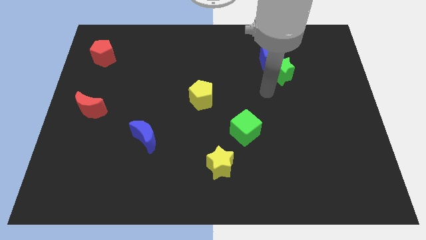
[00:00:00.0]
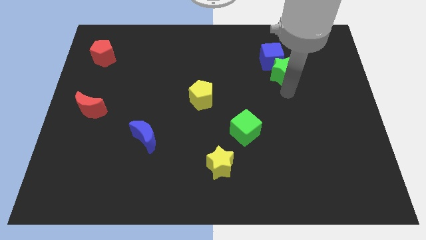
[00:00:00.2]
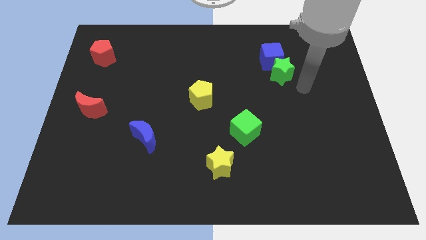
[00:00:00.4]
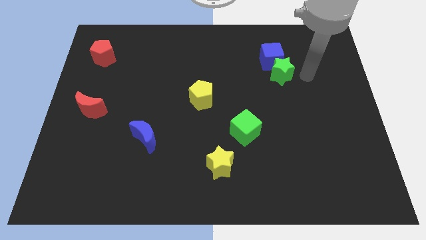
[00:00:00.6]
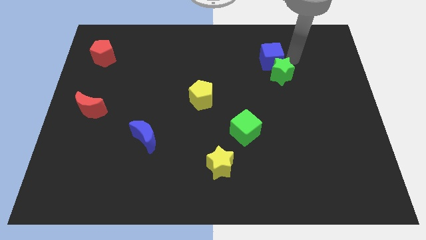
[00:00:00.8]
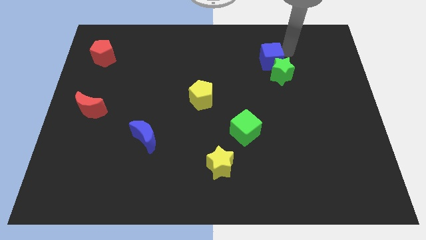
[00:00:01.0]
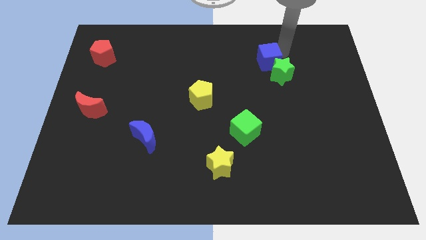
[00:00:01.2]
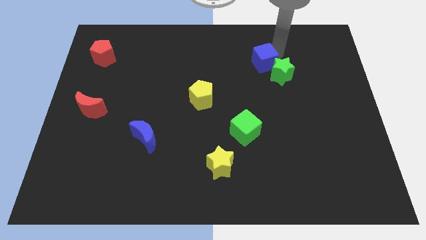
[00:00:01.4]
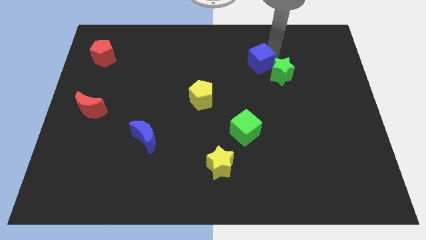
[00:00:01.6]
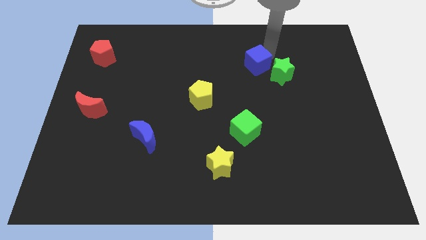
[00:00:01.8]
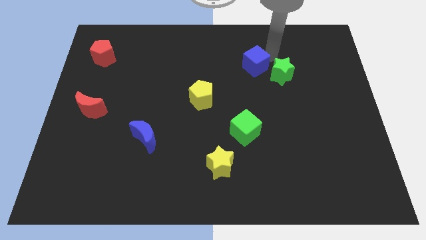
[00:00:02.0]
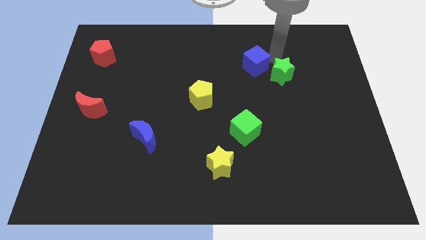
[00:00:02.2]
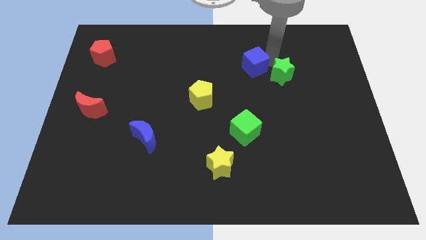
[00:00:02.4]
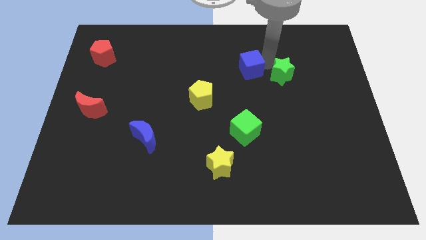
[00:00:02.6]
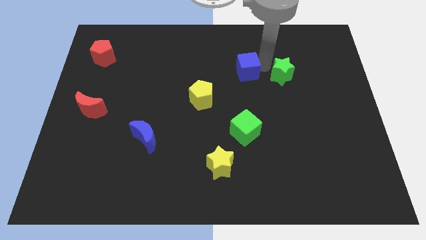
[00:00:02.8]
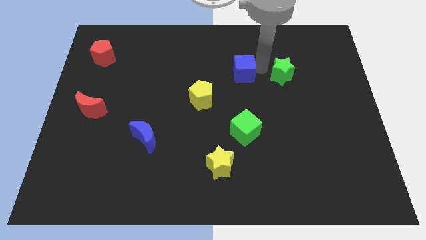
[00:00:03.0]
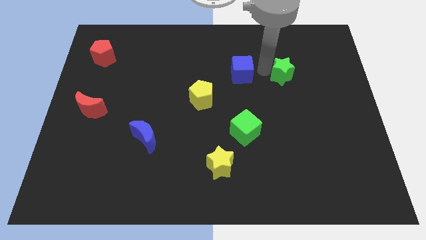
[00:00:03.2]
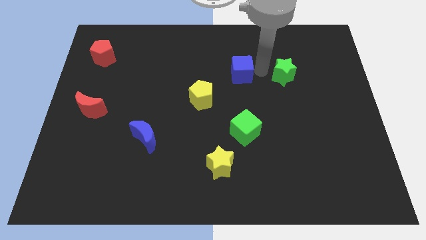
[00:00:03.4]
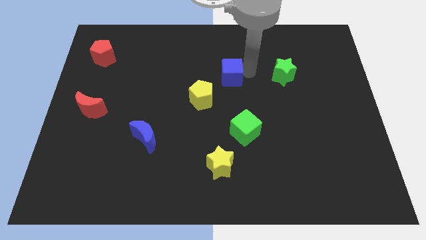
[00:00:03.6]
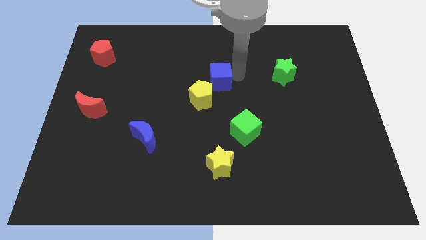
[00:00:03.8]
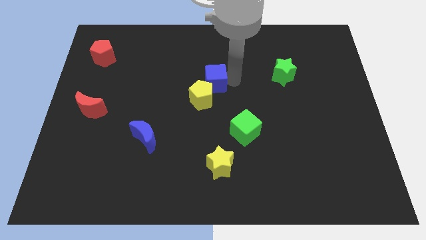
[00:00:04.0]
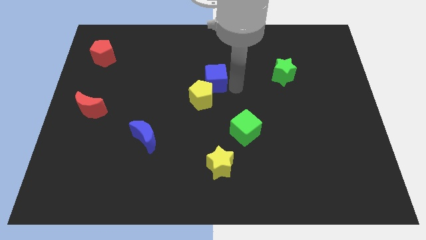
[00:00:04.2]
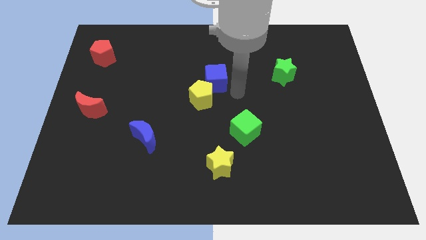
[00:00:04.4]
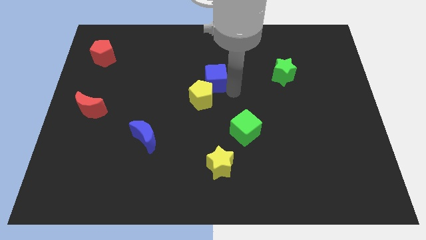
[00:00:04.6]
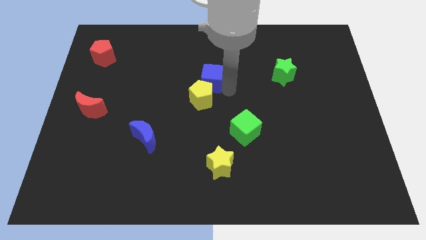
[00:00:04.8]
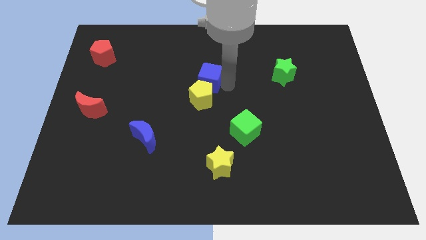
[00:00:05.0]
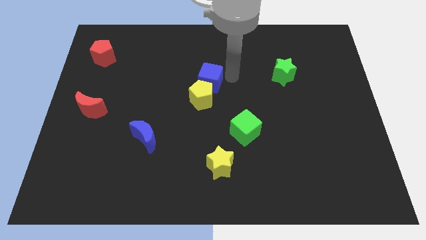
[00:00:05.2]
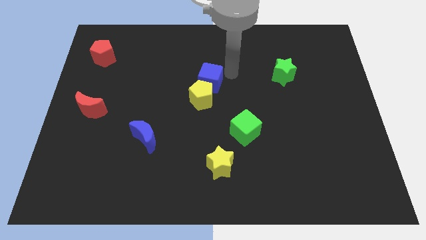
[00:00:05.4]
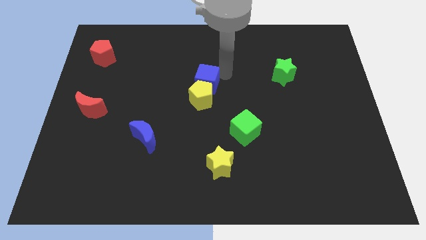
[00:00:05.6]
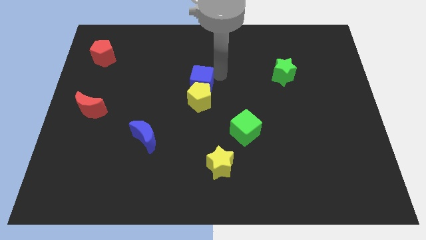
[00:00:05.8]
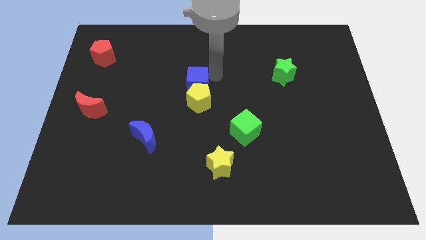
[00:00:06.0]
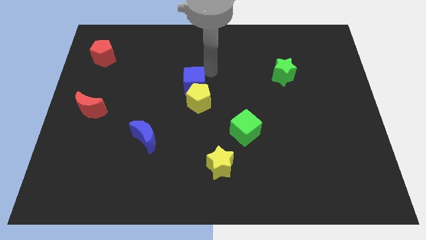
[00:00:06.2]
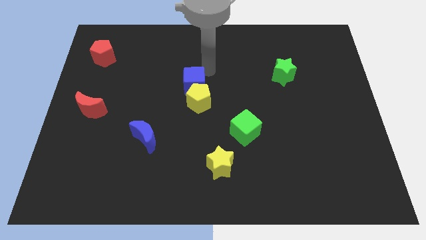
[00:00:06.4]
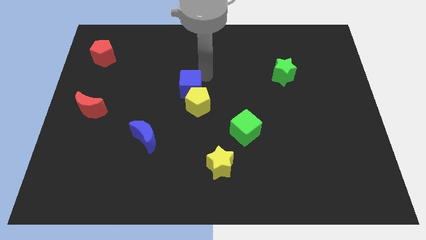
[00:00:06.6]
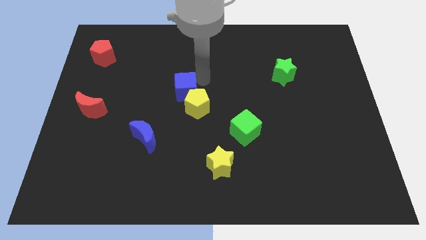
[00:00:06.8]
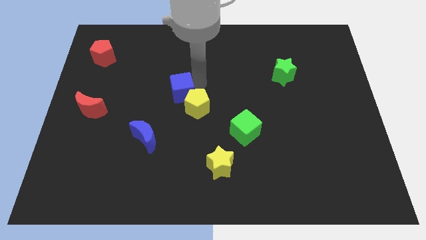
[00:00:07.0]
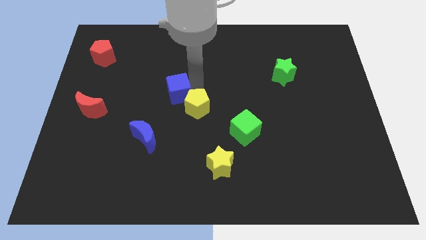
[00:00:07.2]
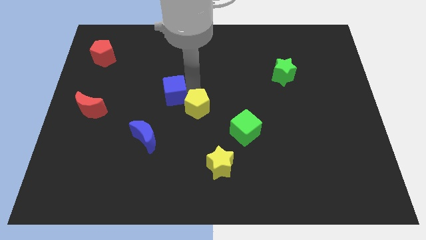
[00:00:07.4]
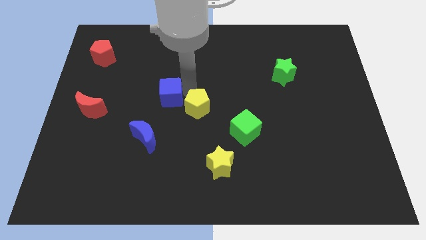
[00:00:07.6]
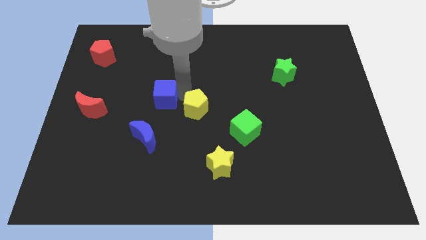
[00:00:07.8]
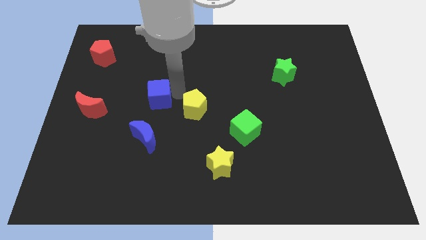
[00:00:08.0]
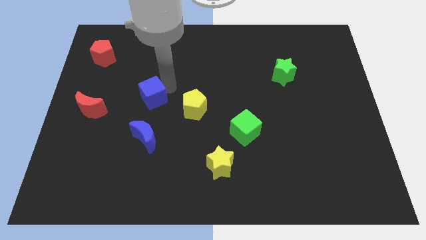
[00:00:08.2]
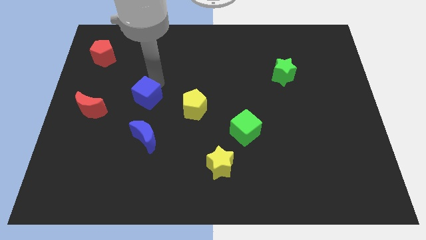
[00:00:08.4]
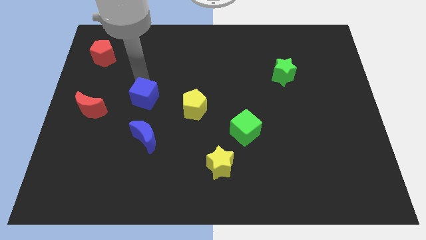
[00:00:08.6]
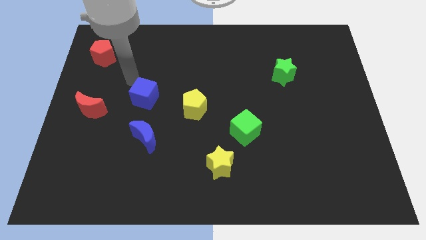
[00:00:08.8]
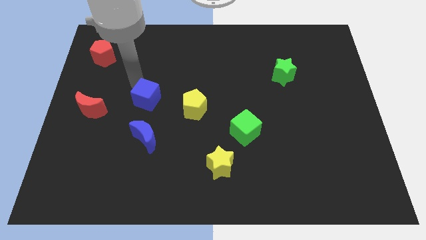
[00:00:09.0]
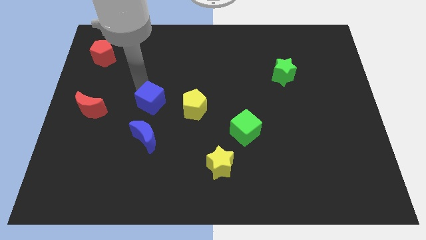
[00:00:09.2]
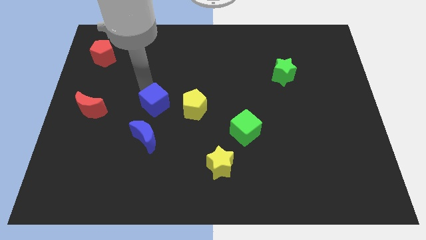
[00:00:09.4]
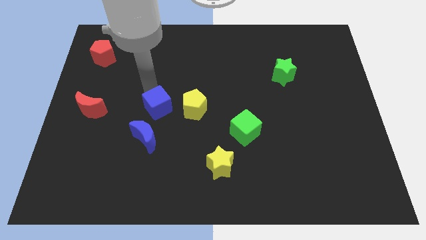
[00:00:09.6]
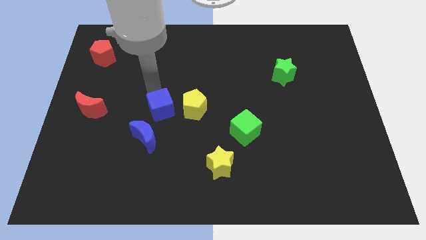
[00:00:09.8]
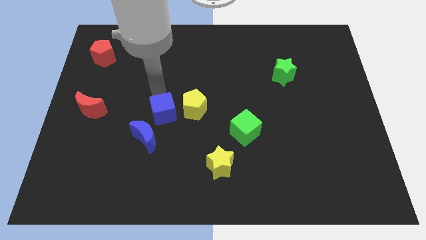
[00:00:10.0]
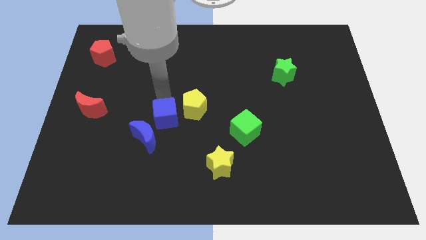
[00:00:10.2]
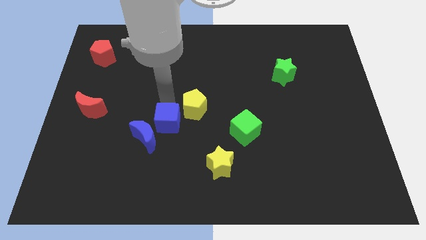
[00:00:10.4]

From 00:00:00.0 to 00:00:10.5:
put the blue cube next to the blue moon

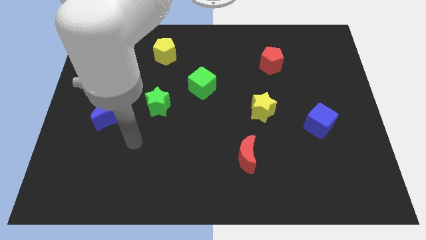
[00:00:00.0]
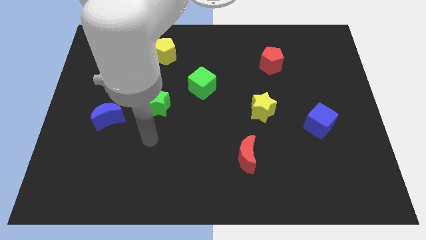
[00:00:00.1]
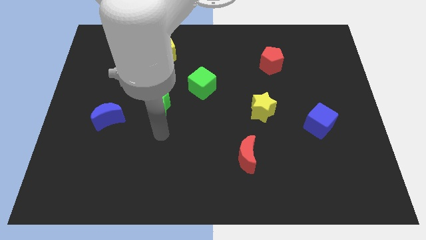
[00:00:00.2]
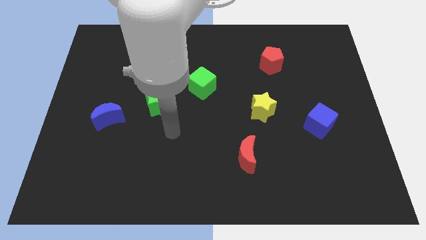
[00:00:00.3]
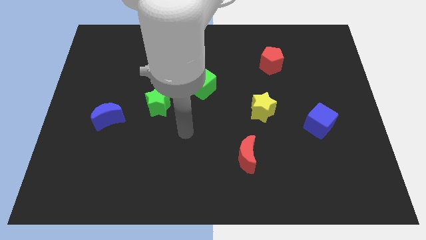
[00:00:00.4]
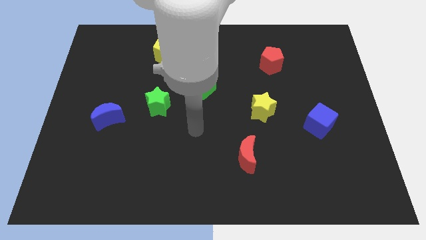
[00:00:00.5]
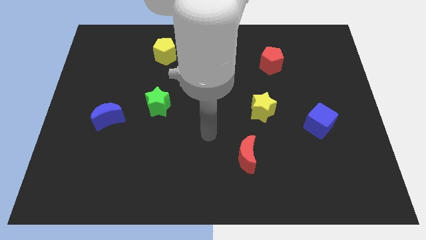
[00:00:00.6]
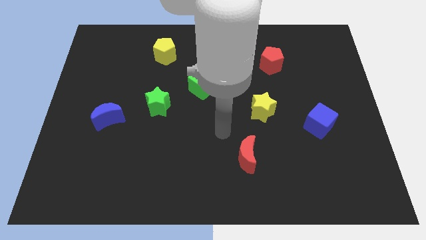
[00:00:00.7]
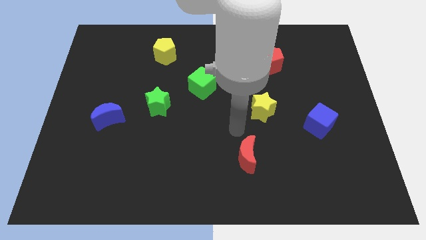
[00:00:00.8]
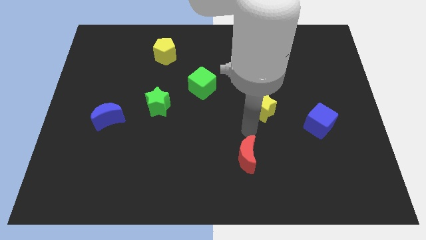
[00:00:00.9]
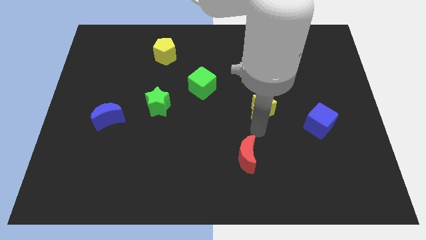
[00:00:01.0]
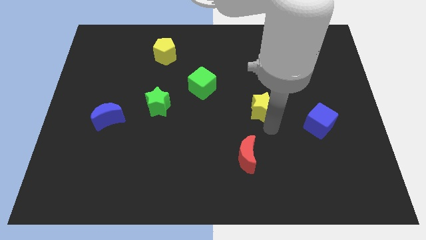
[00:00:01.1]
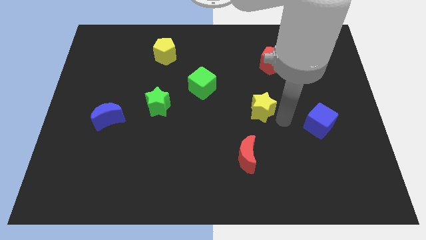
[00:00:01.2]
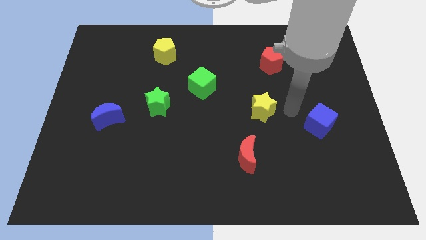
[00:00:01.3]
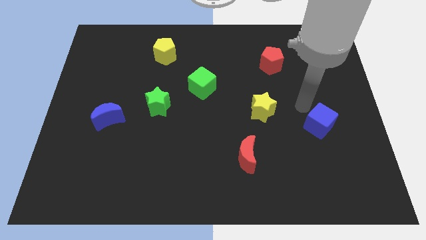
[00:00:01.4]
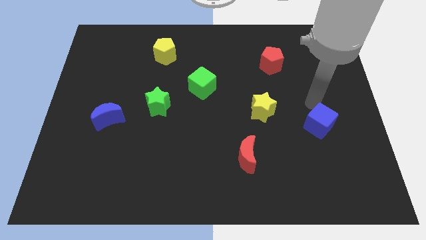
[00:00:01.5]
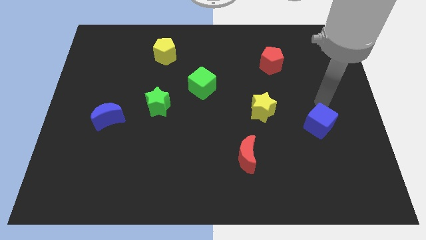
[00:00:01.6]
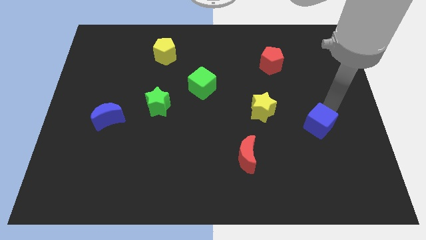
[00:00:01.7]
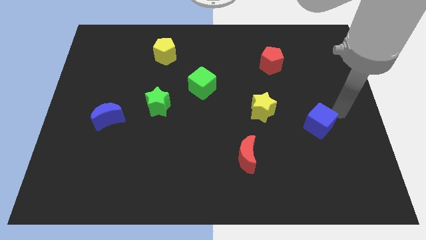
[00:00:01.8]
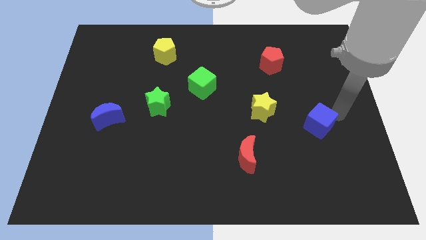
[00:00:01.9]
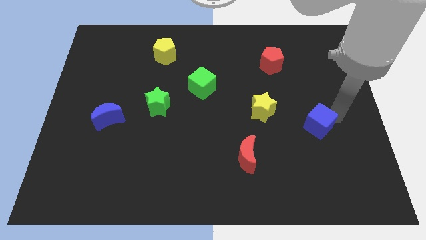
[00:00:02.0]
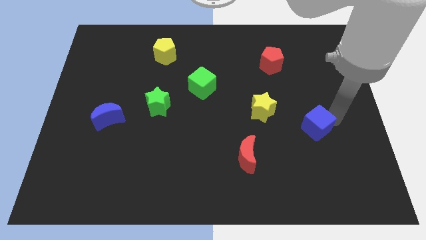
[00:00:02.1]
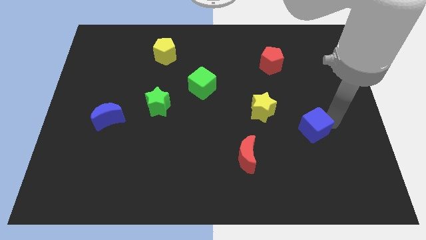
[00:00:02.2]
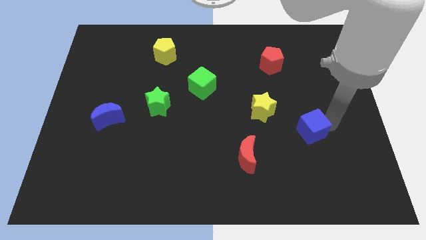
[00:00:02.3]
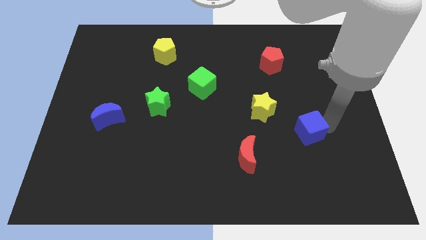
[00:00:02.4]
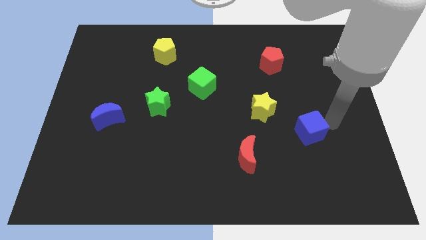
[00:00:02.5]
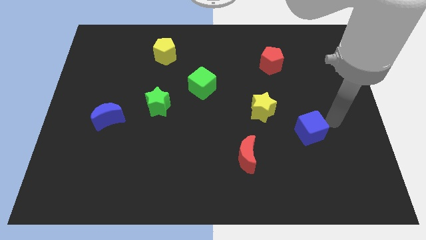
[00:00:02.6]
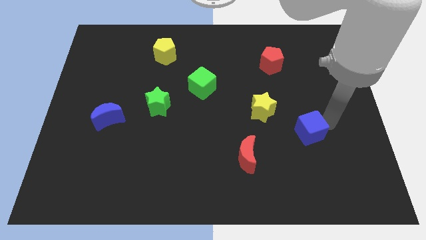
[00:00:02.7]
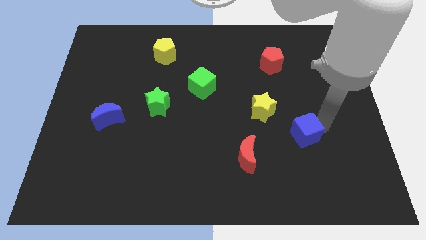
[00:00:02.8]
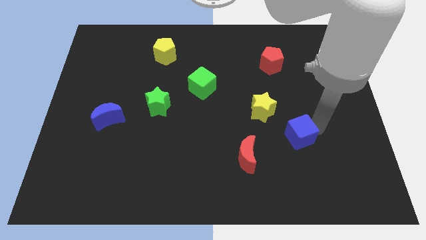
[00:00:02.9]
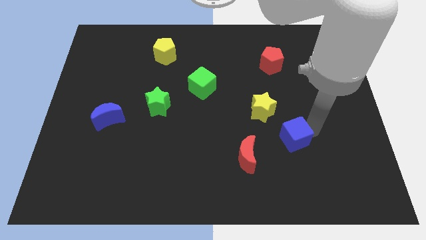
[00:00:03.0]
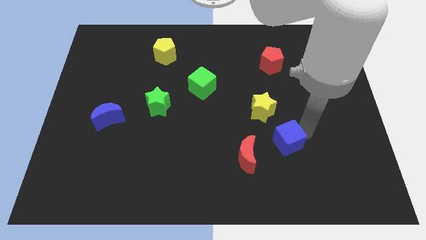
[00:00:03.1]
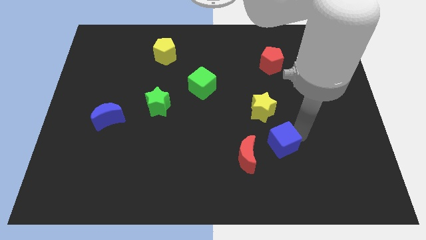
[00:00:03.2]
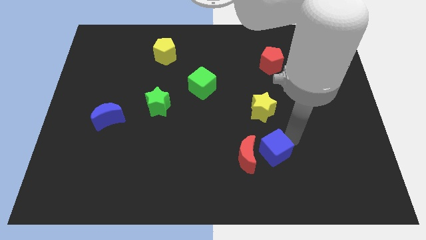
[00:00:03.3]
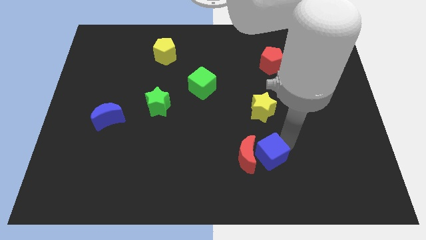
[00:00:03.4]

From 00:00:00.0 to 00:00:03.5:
slide the blue cube towards the red moon
